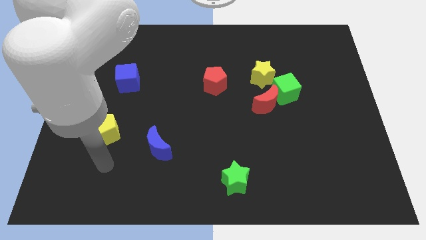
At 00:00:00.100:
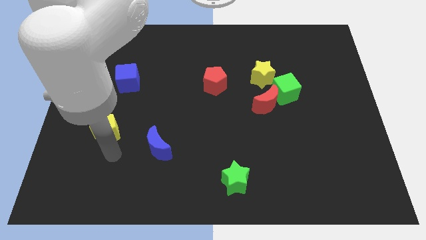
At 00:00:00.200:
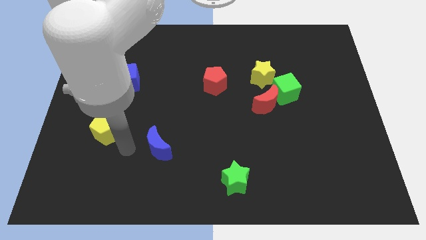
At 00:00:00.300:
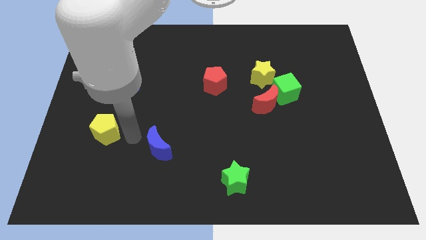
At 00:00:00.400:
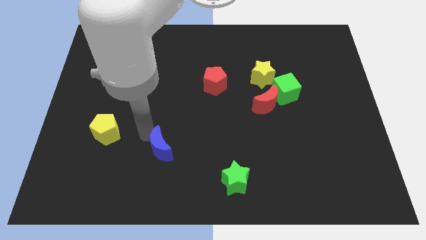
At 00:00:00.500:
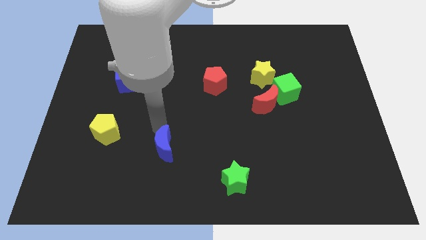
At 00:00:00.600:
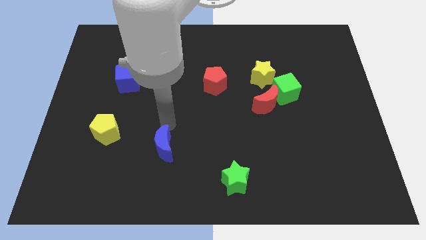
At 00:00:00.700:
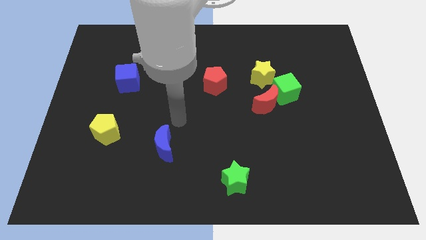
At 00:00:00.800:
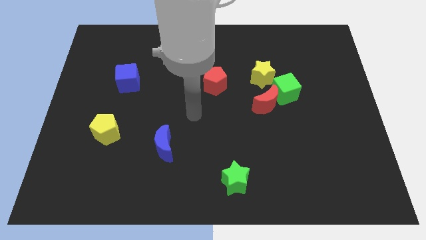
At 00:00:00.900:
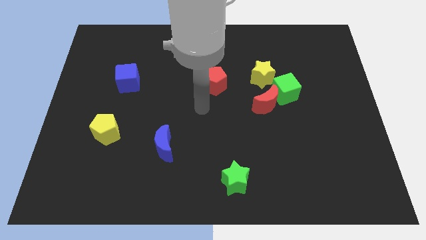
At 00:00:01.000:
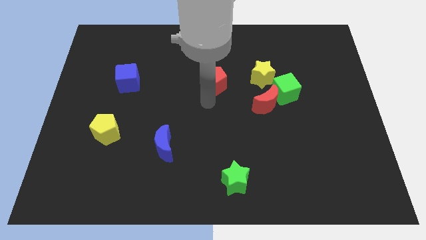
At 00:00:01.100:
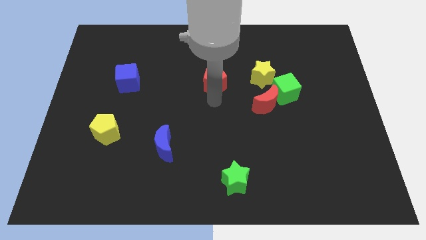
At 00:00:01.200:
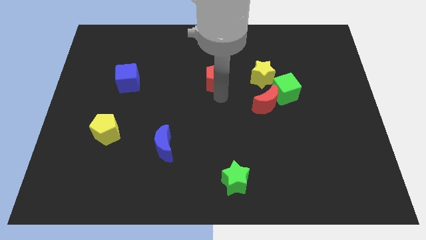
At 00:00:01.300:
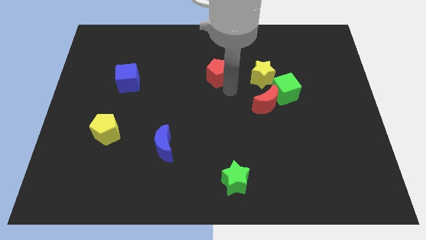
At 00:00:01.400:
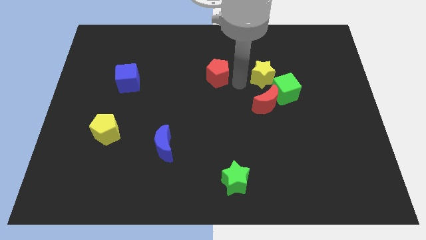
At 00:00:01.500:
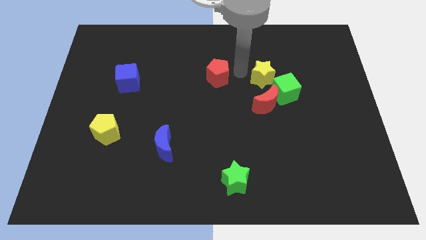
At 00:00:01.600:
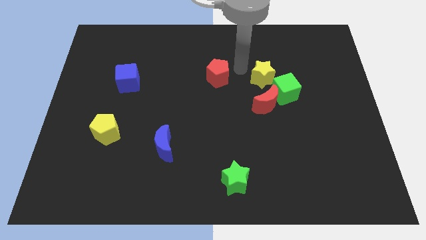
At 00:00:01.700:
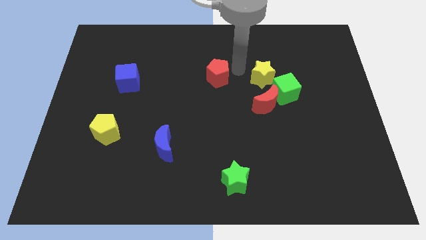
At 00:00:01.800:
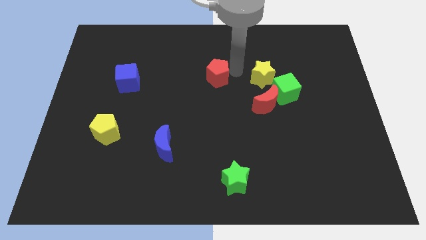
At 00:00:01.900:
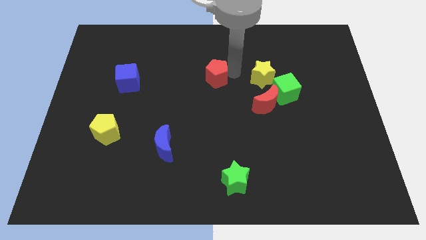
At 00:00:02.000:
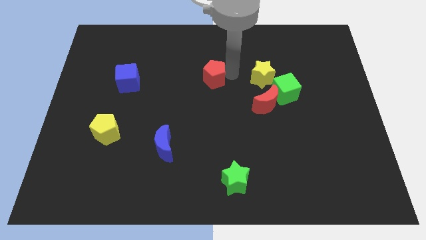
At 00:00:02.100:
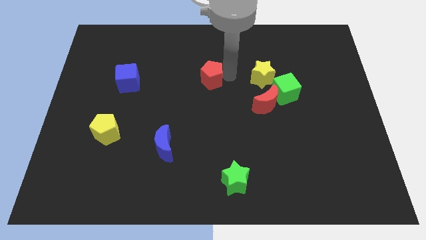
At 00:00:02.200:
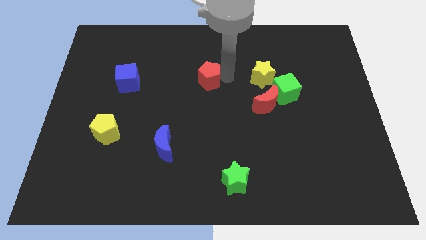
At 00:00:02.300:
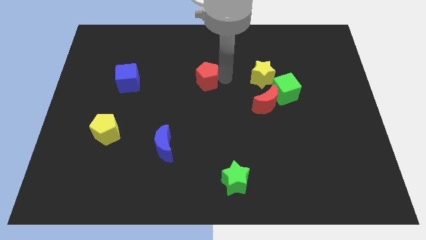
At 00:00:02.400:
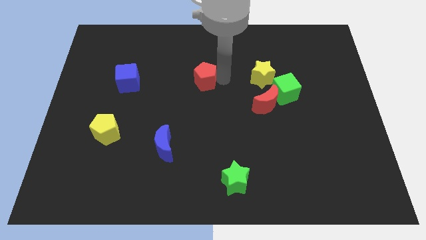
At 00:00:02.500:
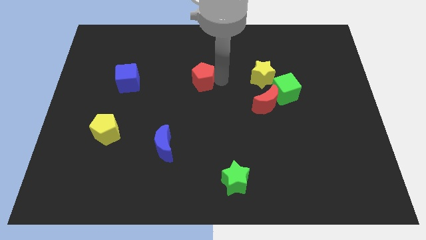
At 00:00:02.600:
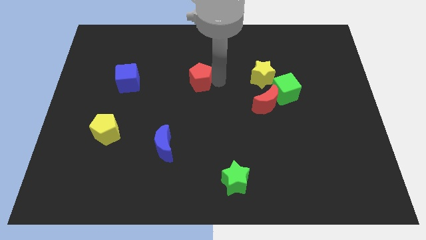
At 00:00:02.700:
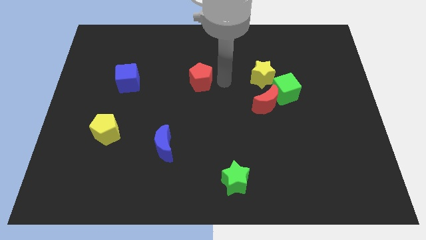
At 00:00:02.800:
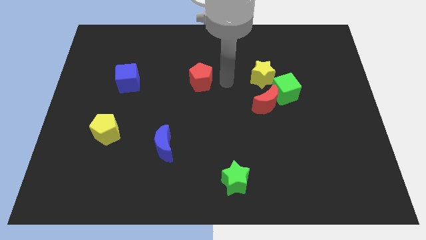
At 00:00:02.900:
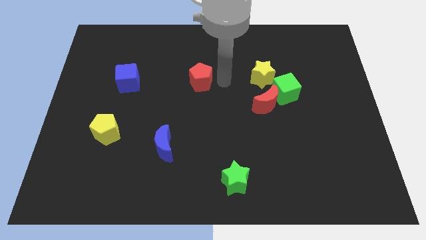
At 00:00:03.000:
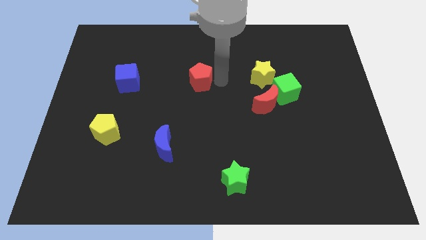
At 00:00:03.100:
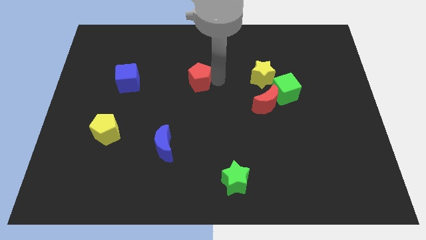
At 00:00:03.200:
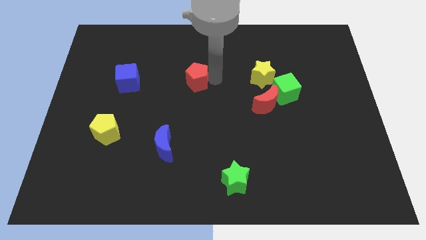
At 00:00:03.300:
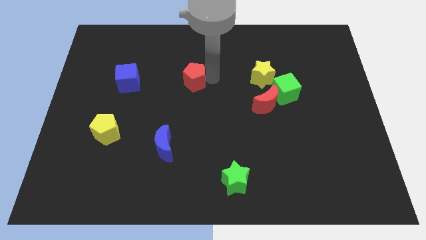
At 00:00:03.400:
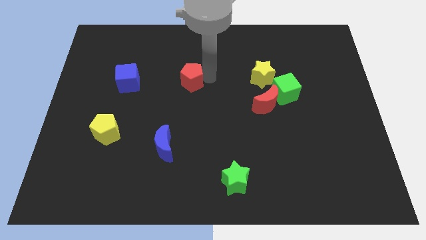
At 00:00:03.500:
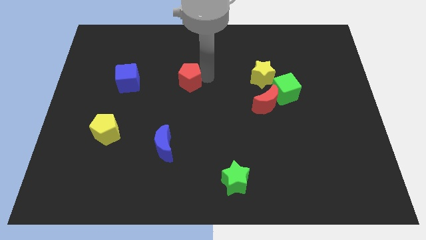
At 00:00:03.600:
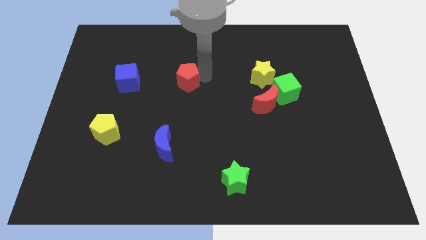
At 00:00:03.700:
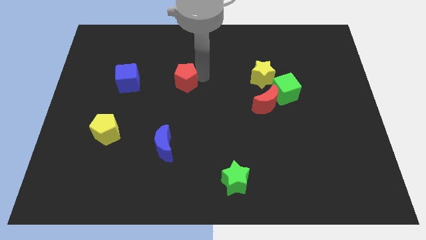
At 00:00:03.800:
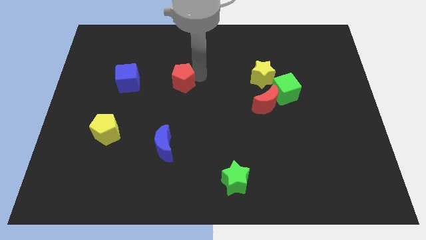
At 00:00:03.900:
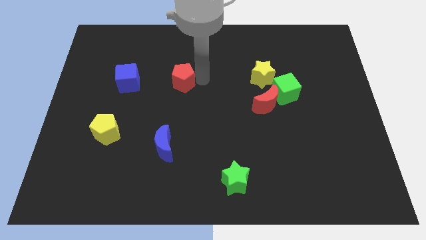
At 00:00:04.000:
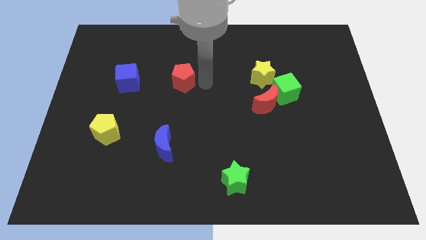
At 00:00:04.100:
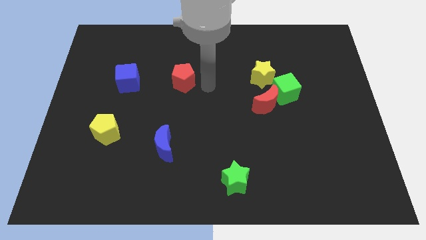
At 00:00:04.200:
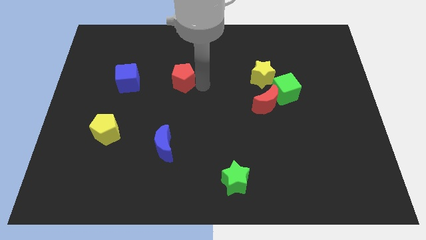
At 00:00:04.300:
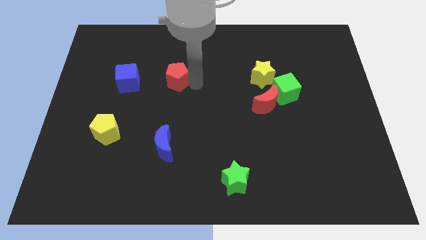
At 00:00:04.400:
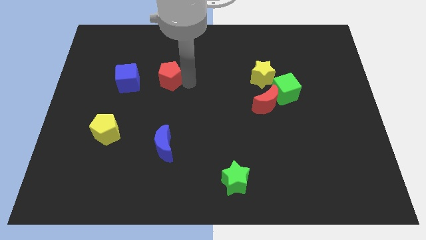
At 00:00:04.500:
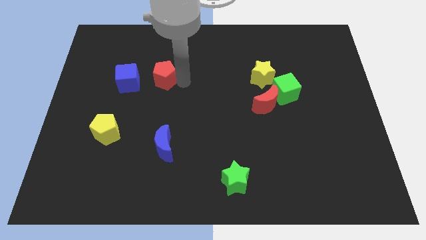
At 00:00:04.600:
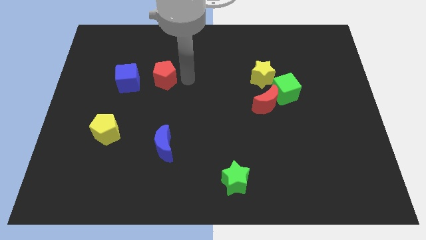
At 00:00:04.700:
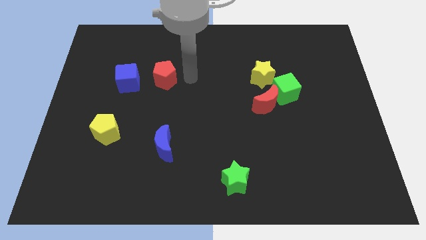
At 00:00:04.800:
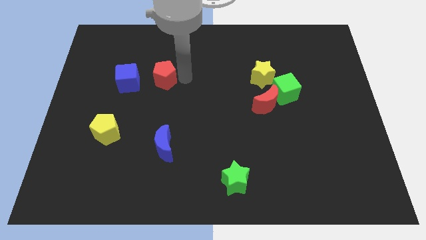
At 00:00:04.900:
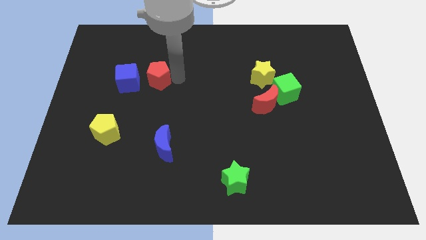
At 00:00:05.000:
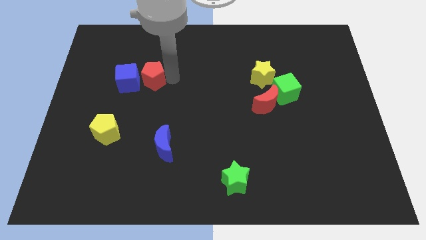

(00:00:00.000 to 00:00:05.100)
slide the red pentagon towards the blue cube
